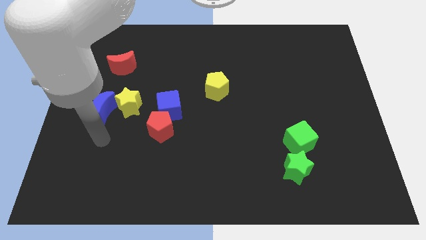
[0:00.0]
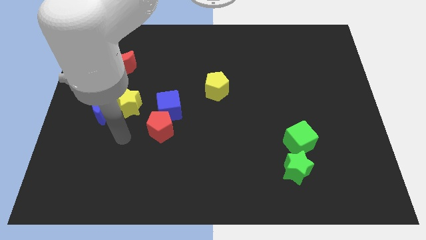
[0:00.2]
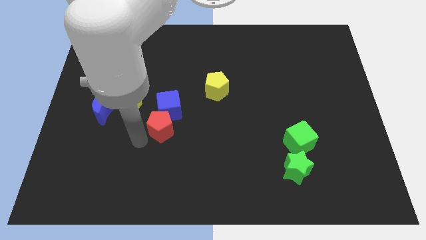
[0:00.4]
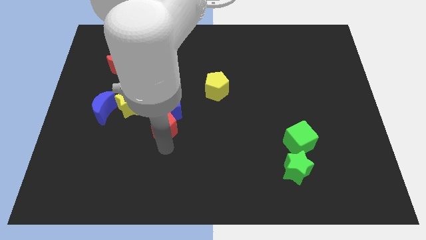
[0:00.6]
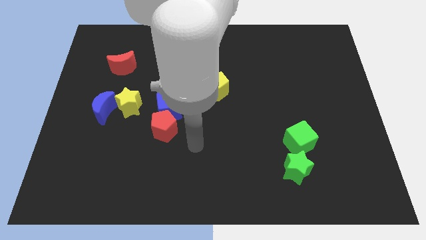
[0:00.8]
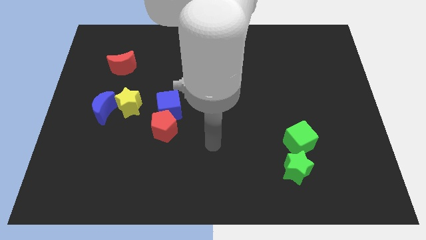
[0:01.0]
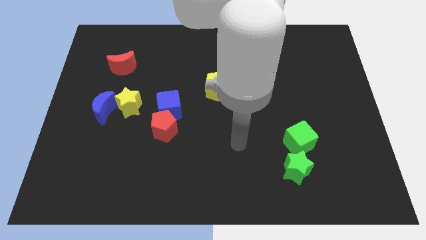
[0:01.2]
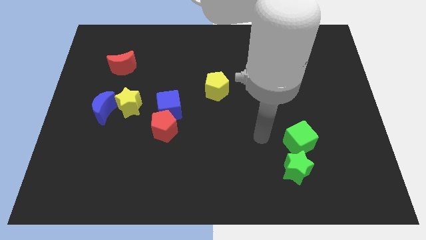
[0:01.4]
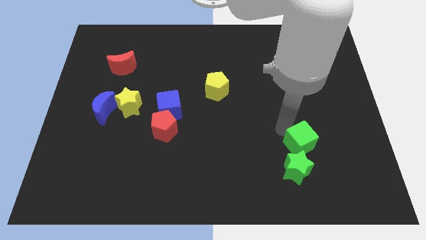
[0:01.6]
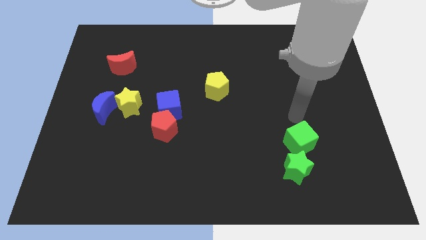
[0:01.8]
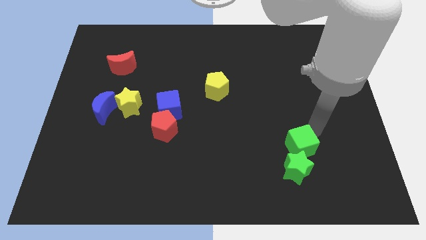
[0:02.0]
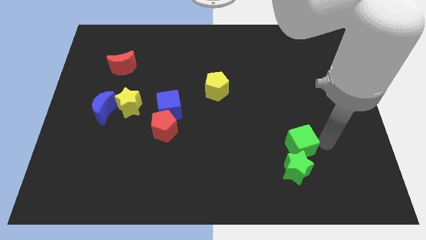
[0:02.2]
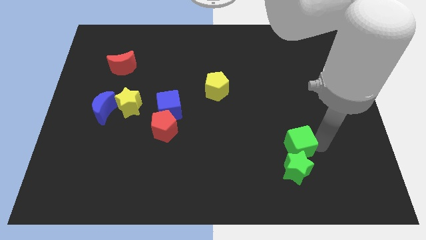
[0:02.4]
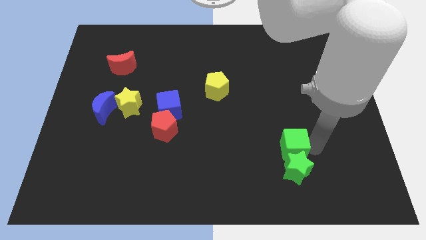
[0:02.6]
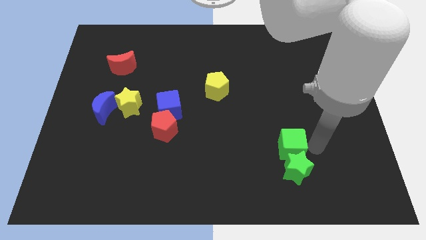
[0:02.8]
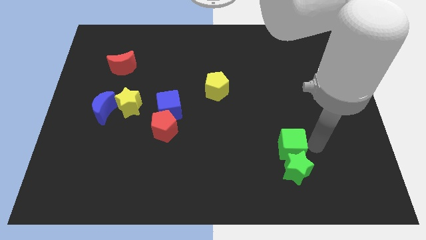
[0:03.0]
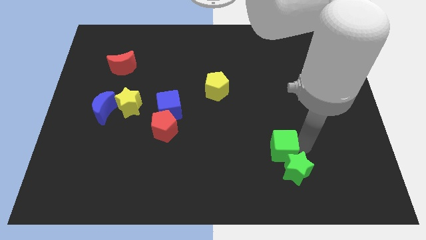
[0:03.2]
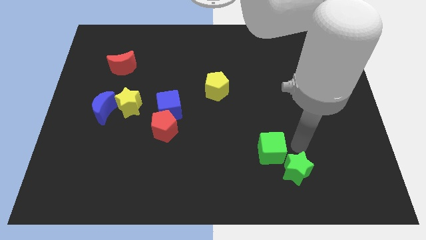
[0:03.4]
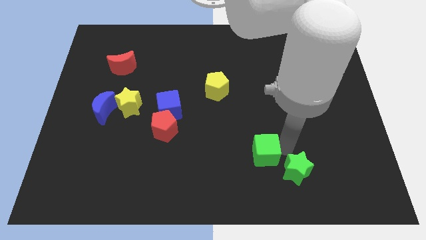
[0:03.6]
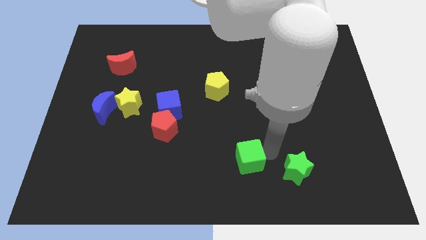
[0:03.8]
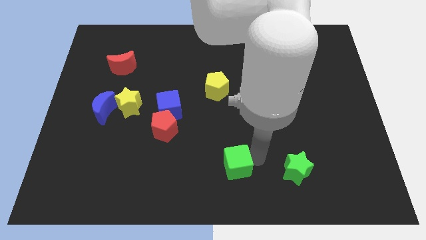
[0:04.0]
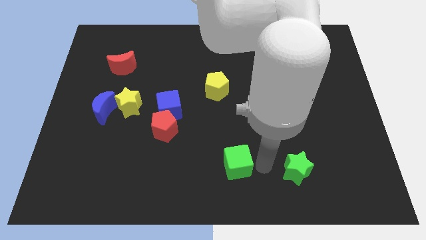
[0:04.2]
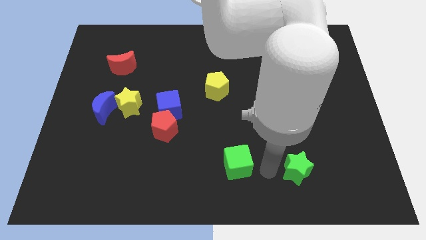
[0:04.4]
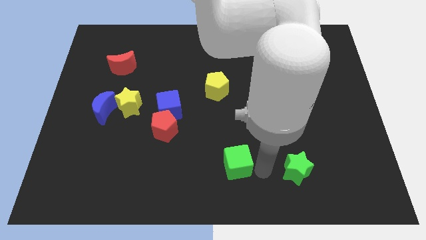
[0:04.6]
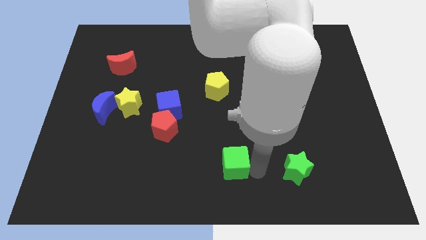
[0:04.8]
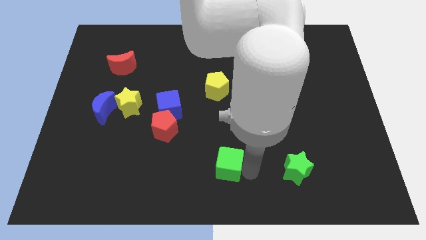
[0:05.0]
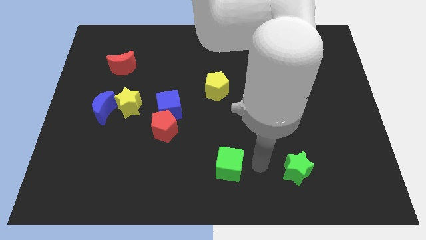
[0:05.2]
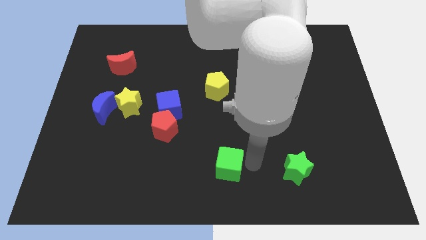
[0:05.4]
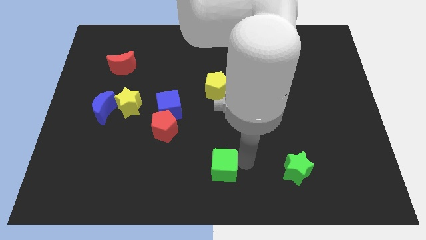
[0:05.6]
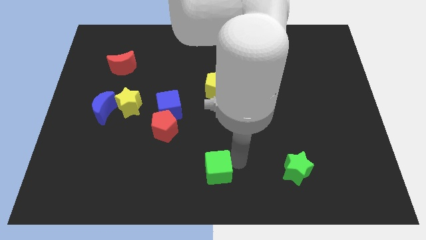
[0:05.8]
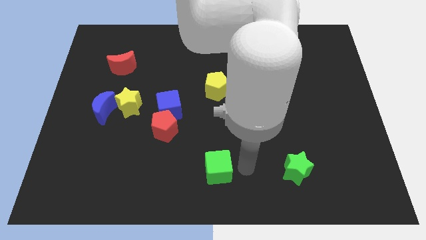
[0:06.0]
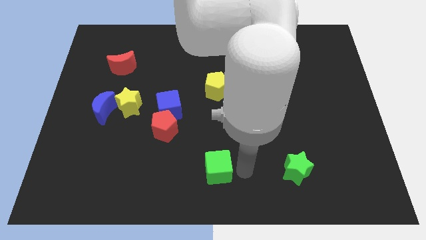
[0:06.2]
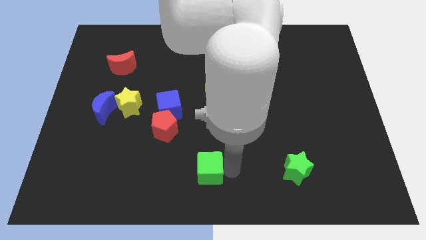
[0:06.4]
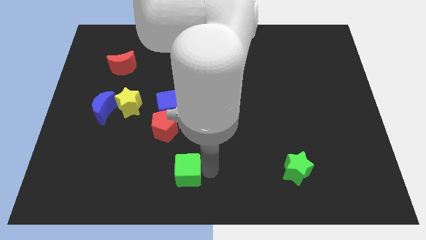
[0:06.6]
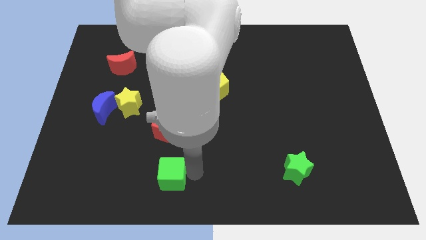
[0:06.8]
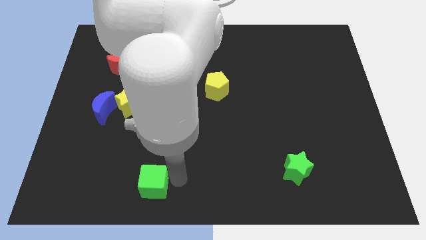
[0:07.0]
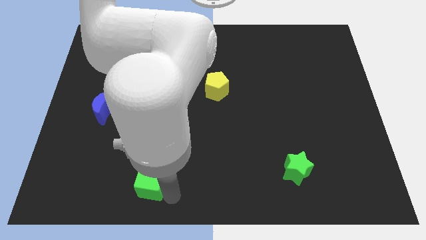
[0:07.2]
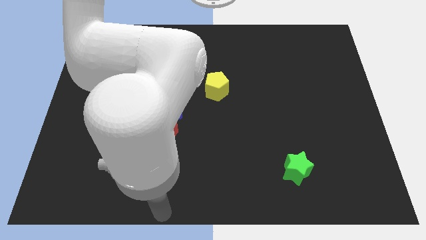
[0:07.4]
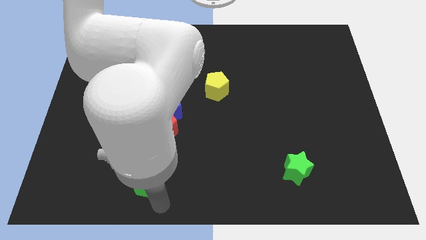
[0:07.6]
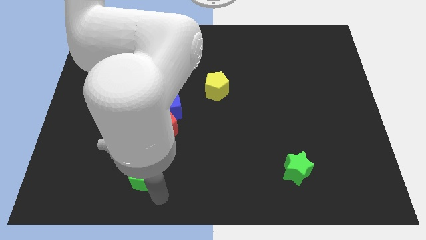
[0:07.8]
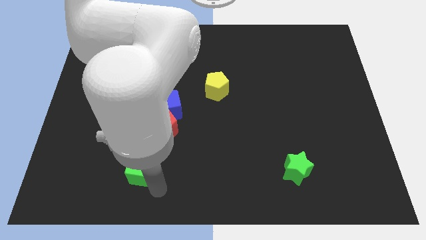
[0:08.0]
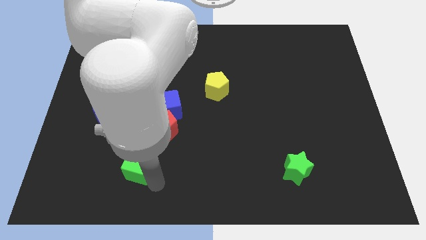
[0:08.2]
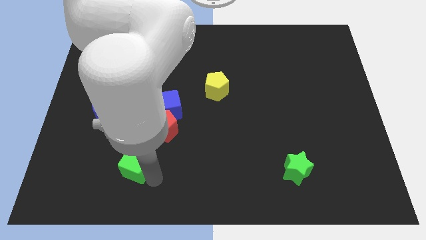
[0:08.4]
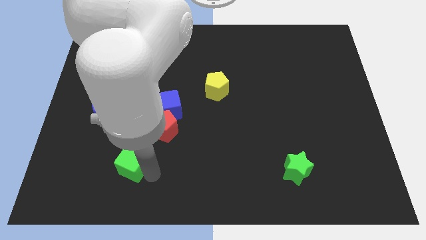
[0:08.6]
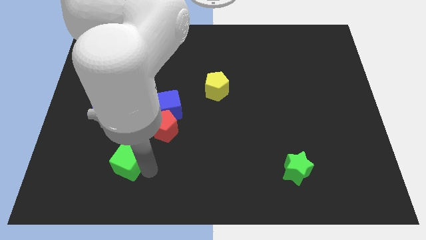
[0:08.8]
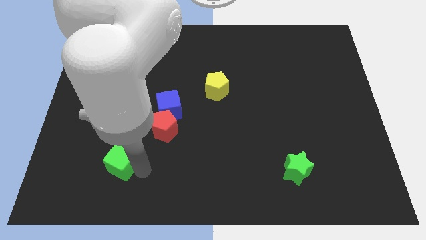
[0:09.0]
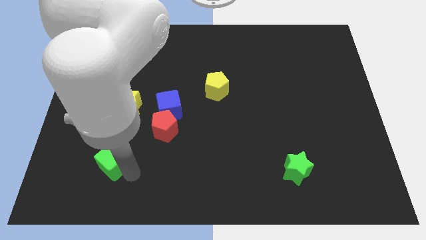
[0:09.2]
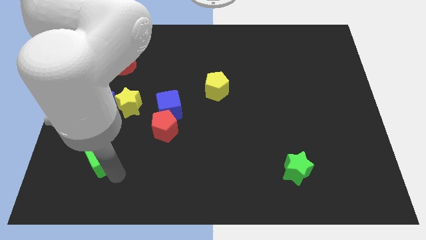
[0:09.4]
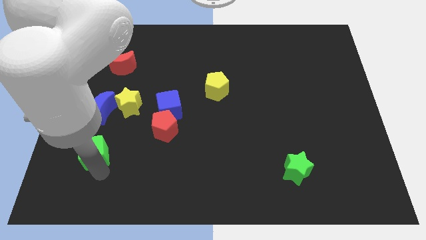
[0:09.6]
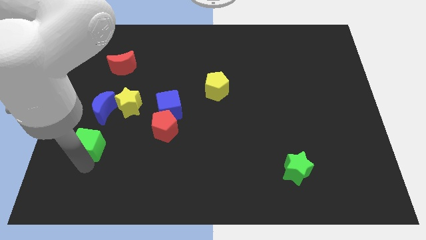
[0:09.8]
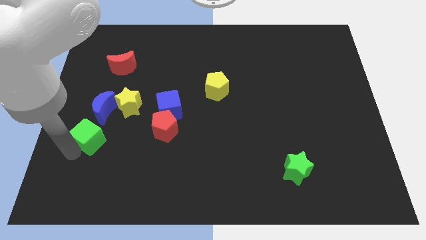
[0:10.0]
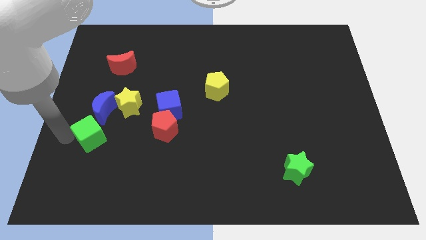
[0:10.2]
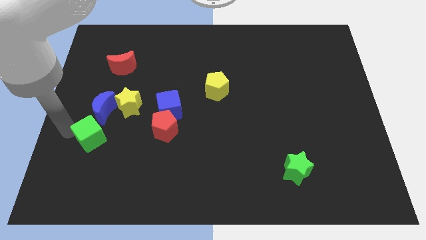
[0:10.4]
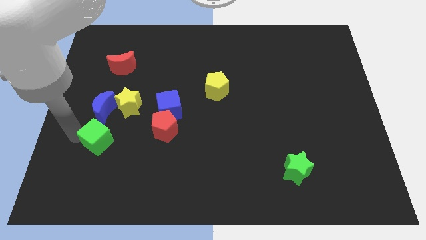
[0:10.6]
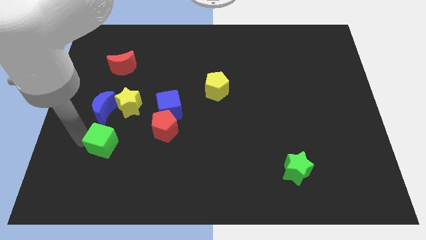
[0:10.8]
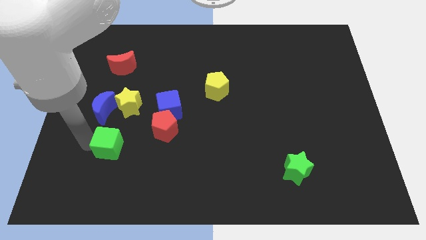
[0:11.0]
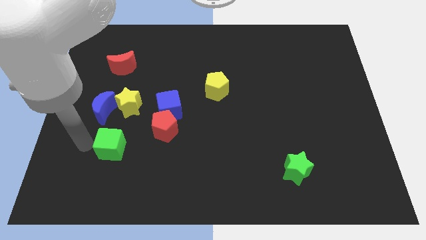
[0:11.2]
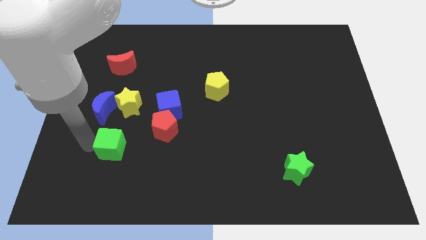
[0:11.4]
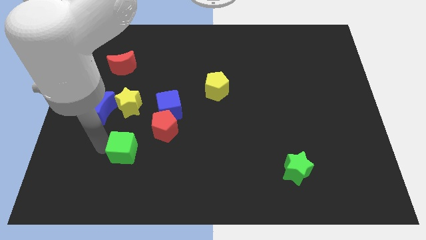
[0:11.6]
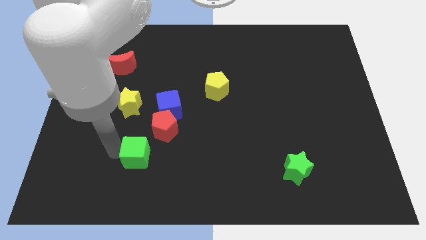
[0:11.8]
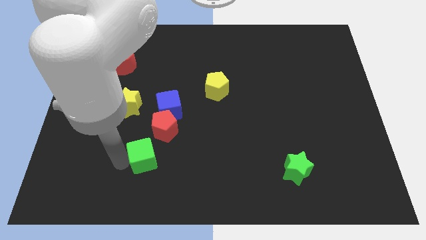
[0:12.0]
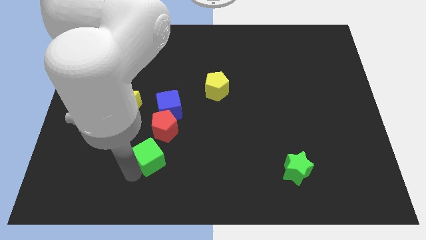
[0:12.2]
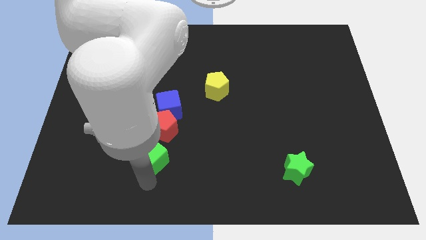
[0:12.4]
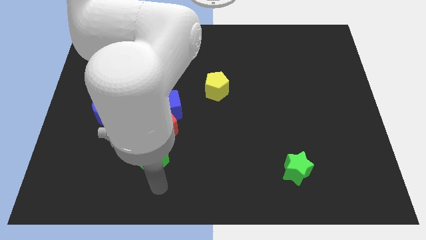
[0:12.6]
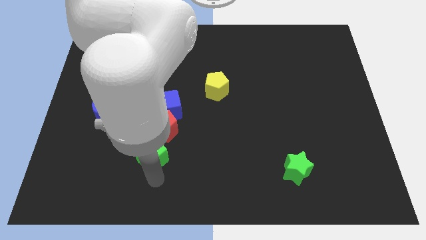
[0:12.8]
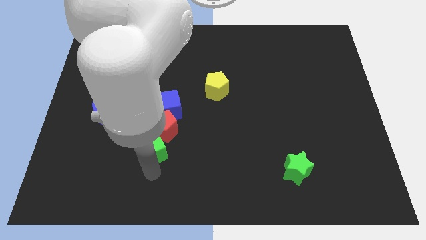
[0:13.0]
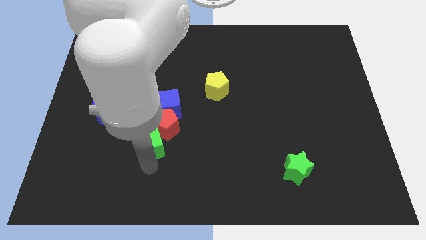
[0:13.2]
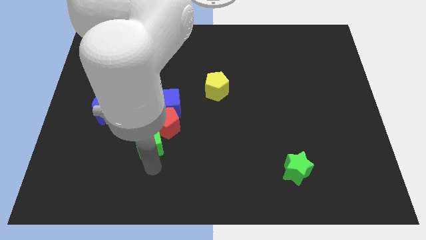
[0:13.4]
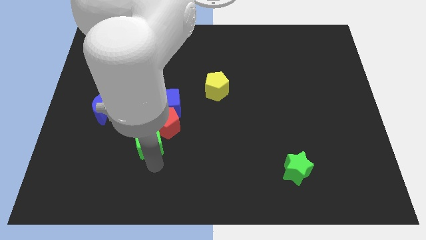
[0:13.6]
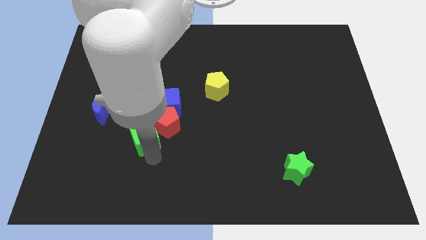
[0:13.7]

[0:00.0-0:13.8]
move the green cube to the bottom left of the blue cube
